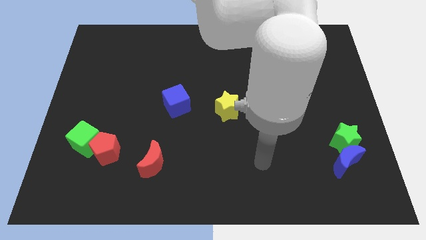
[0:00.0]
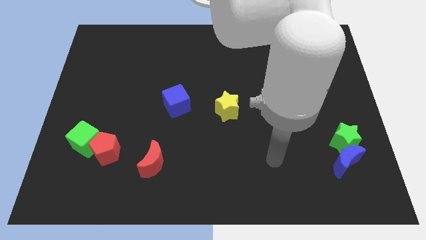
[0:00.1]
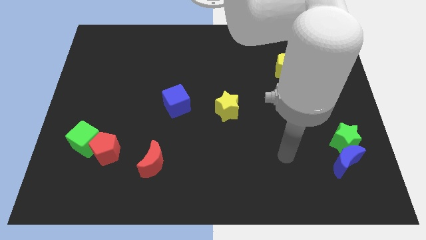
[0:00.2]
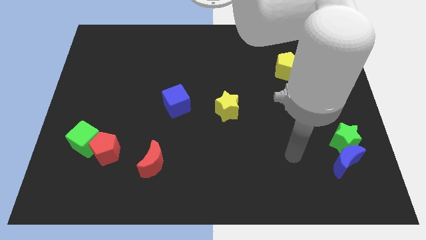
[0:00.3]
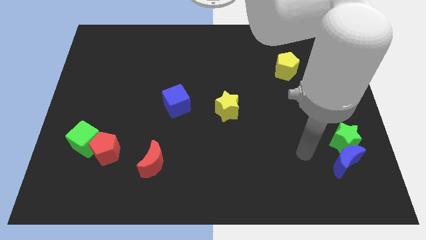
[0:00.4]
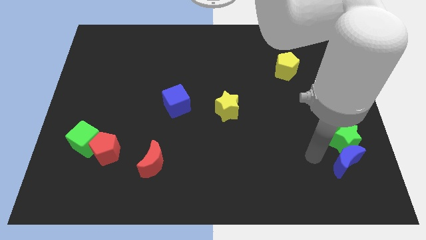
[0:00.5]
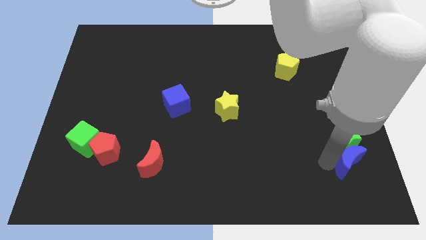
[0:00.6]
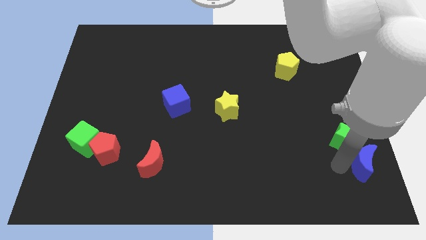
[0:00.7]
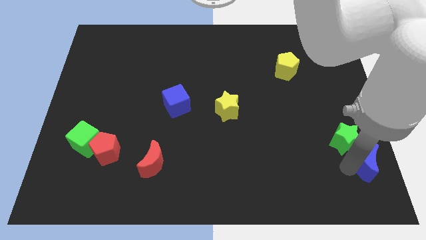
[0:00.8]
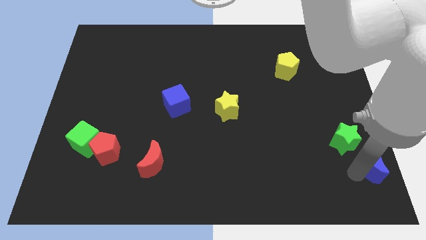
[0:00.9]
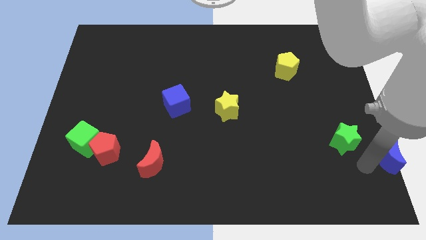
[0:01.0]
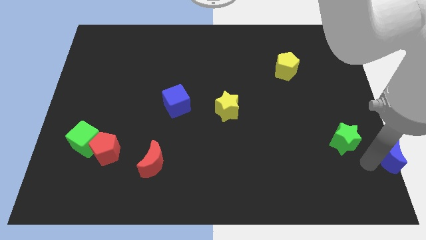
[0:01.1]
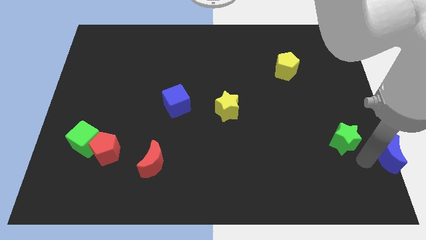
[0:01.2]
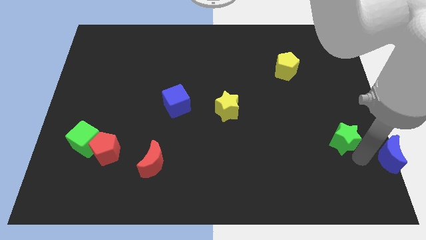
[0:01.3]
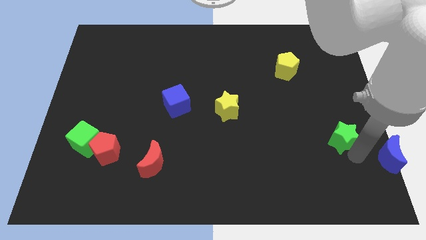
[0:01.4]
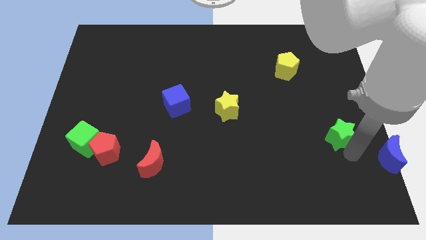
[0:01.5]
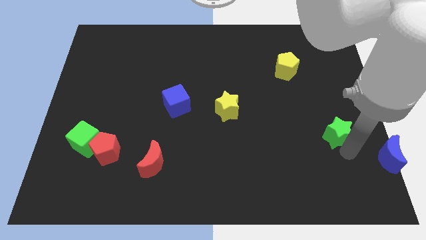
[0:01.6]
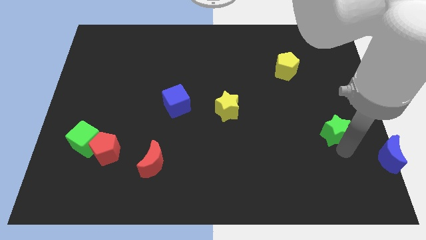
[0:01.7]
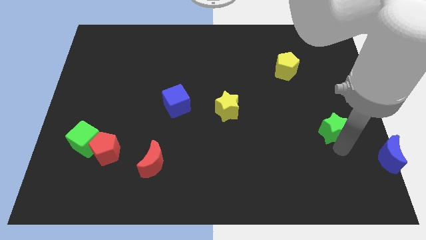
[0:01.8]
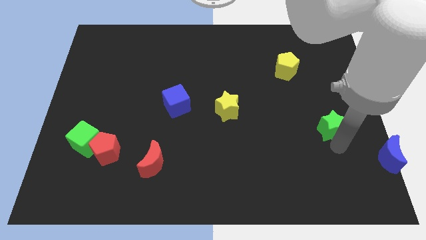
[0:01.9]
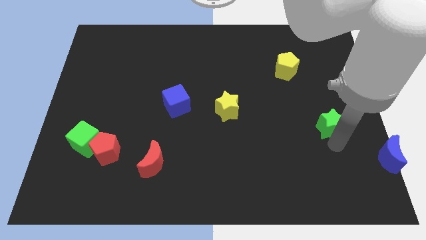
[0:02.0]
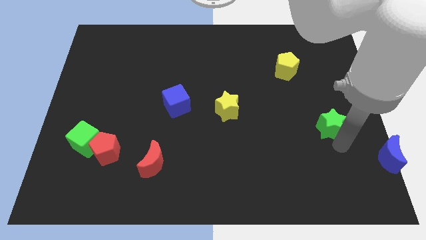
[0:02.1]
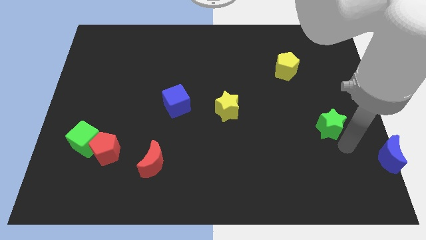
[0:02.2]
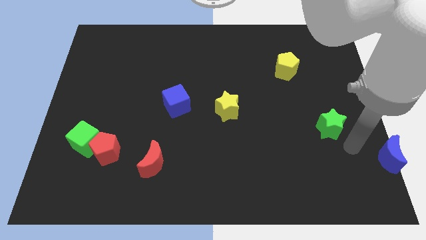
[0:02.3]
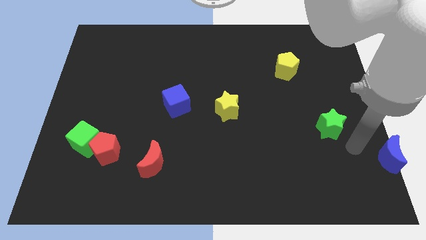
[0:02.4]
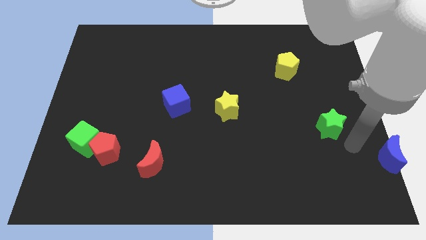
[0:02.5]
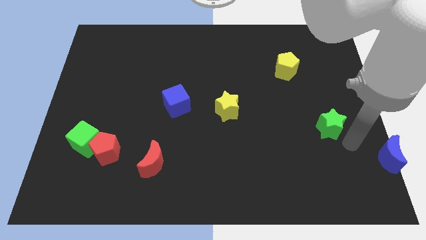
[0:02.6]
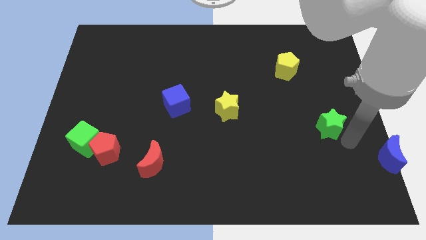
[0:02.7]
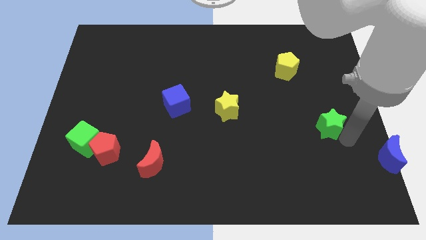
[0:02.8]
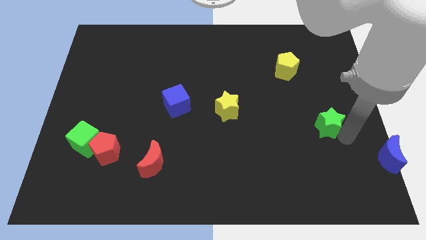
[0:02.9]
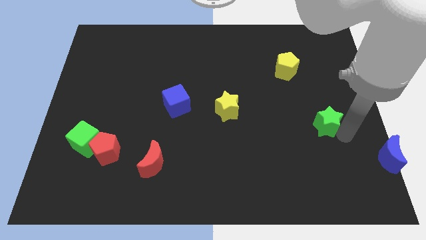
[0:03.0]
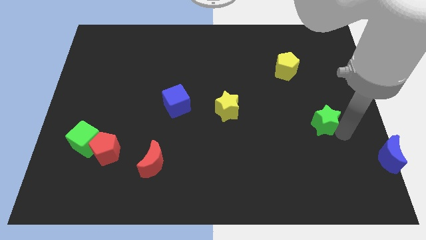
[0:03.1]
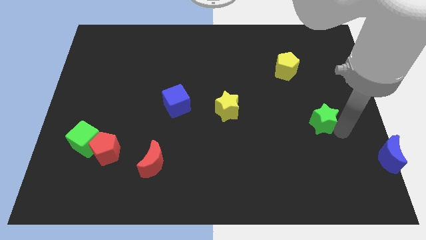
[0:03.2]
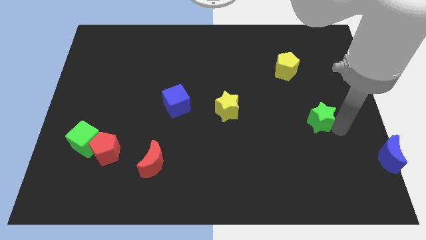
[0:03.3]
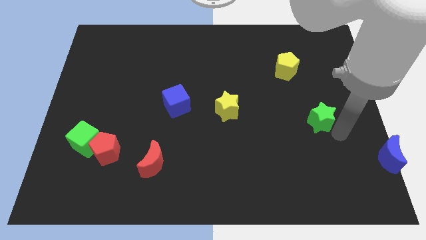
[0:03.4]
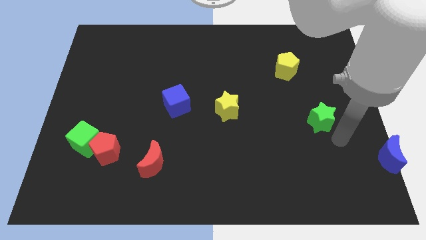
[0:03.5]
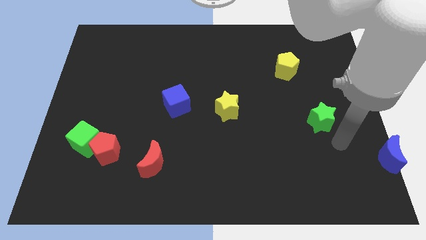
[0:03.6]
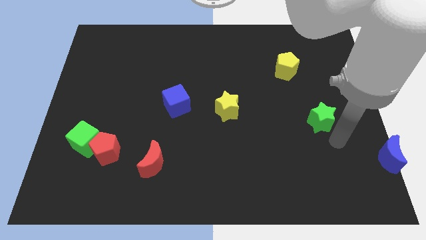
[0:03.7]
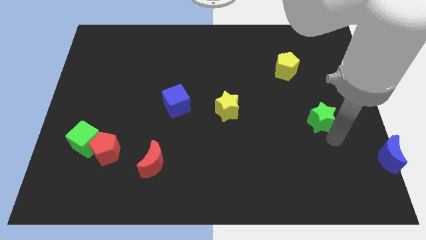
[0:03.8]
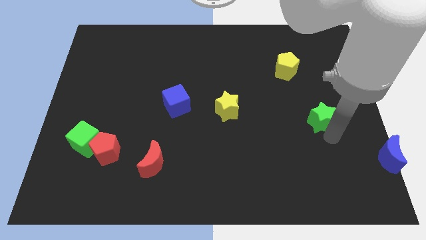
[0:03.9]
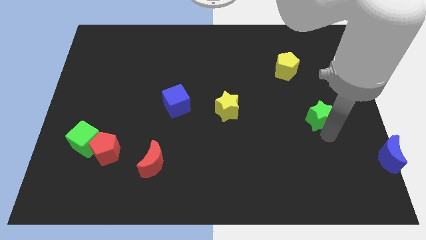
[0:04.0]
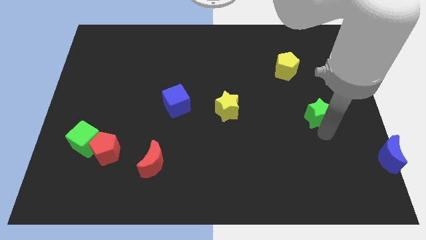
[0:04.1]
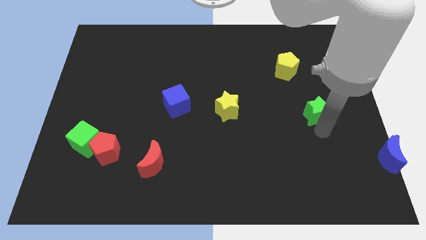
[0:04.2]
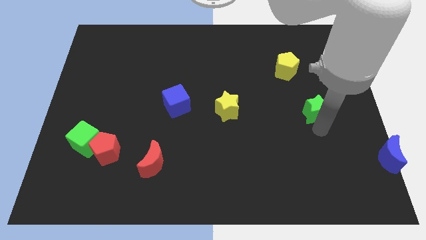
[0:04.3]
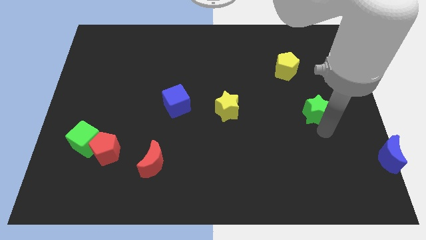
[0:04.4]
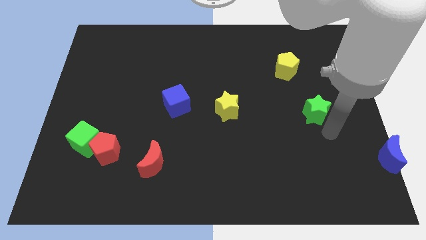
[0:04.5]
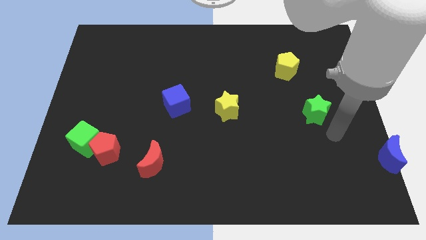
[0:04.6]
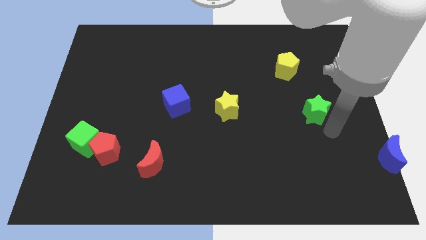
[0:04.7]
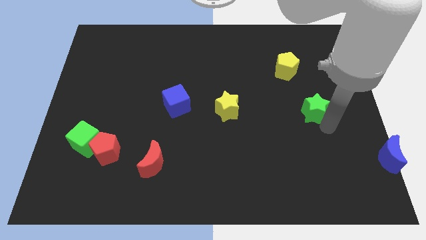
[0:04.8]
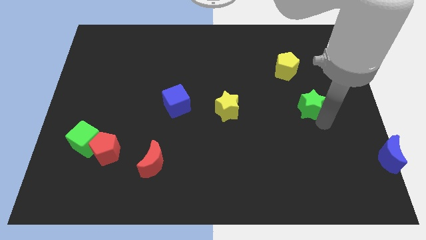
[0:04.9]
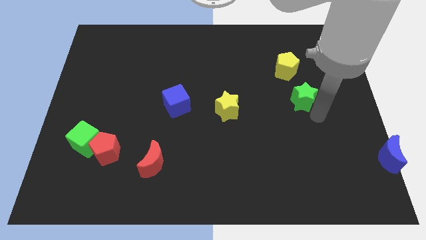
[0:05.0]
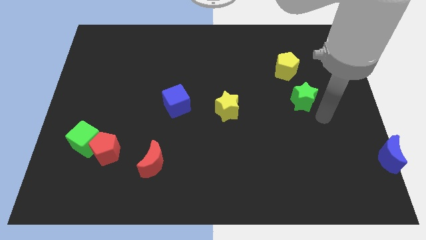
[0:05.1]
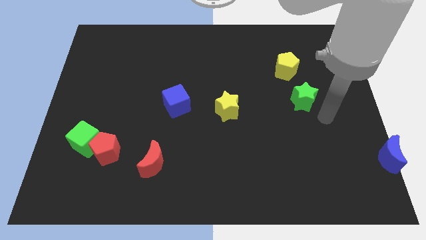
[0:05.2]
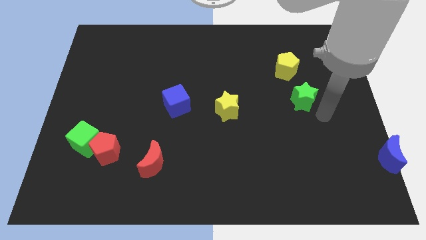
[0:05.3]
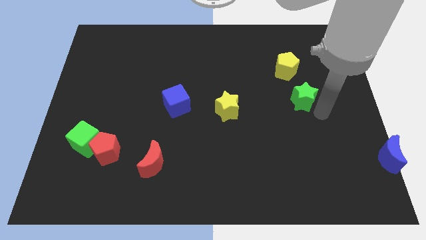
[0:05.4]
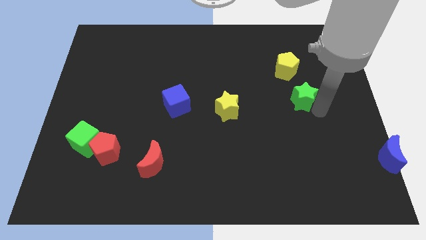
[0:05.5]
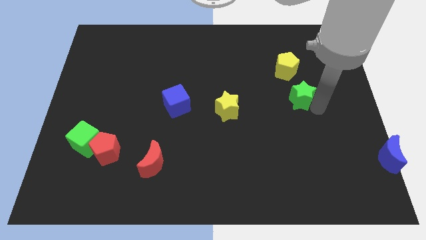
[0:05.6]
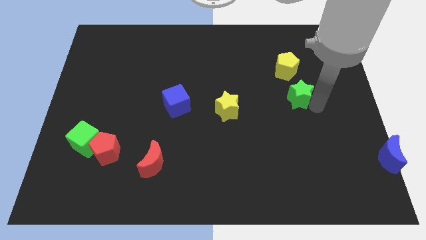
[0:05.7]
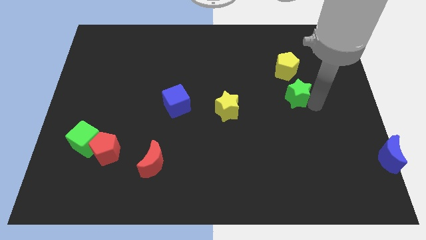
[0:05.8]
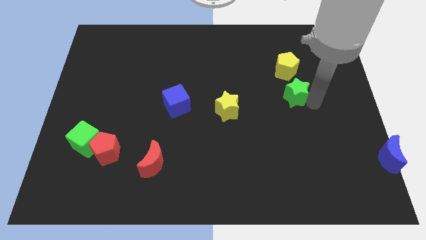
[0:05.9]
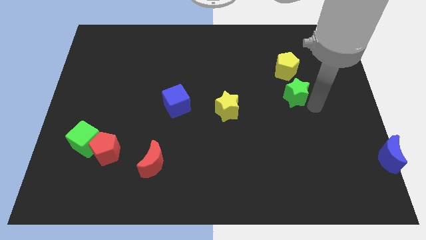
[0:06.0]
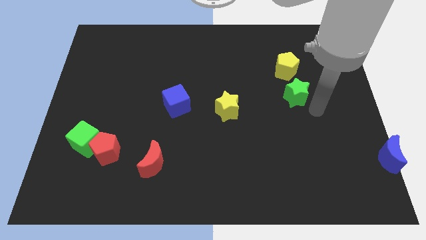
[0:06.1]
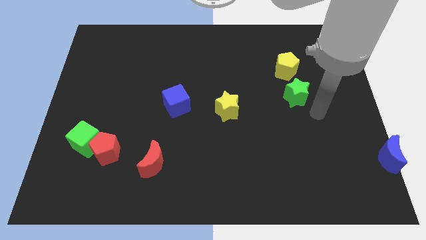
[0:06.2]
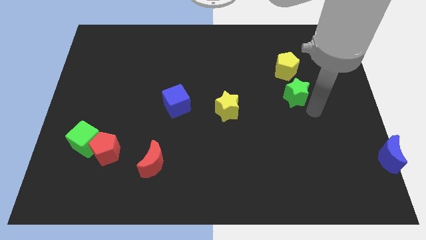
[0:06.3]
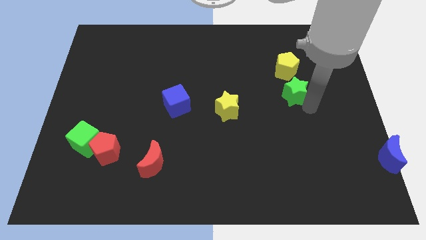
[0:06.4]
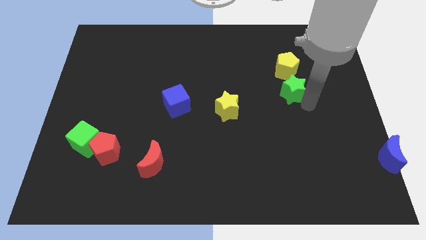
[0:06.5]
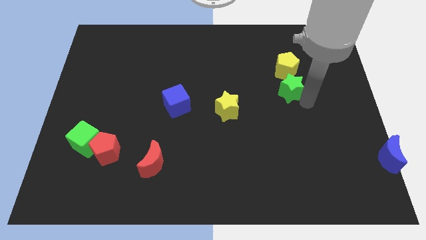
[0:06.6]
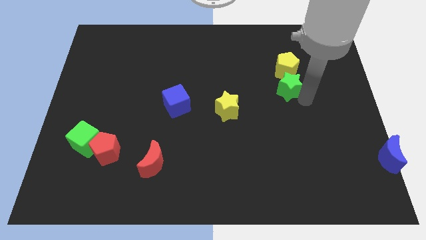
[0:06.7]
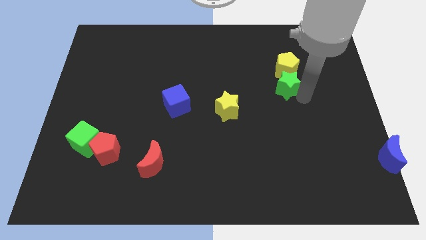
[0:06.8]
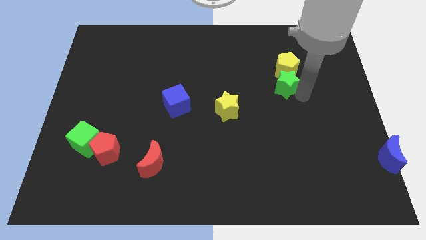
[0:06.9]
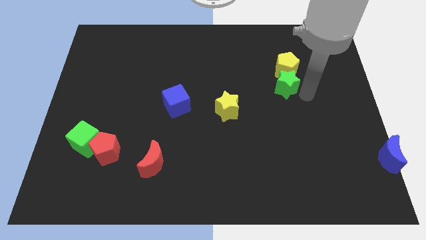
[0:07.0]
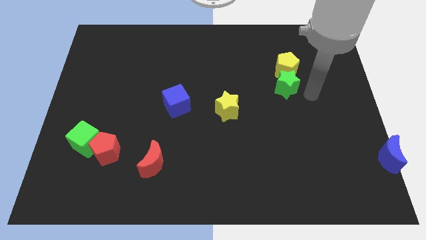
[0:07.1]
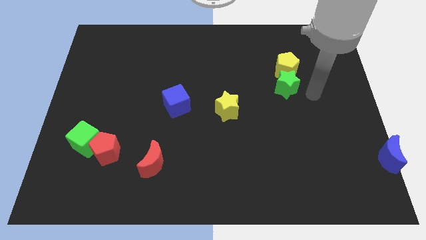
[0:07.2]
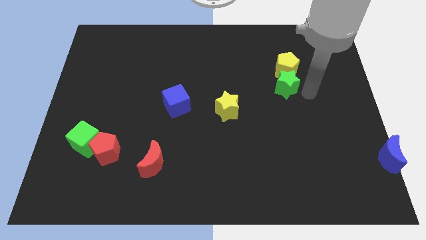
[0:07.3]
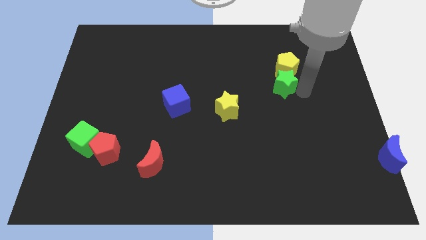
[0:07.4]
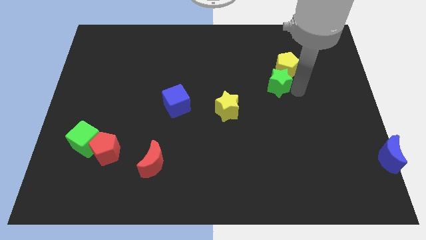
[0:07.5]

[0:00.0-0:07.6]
slide the green star diagonally up and to the left
